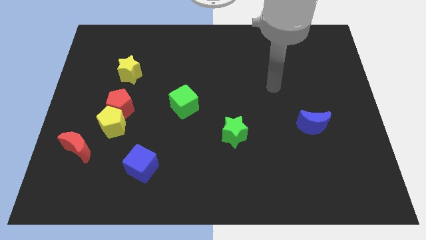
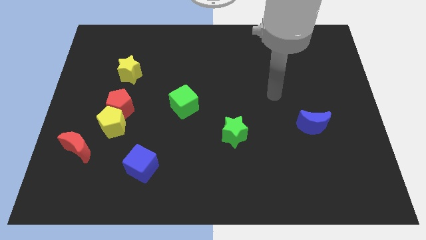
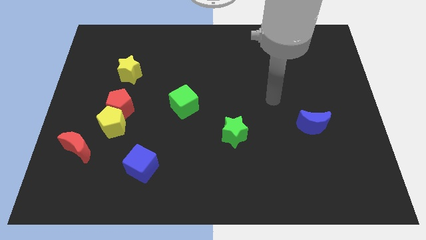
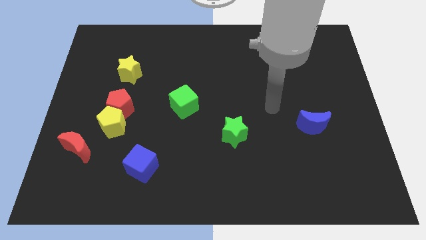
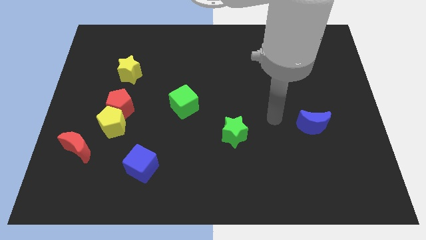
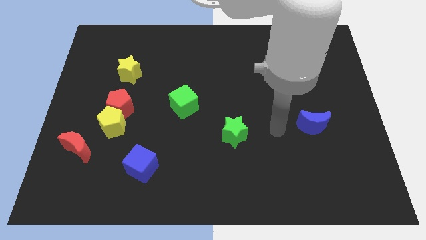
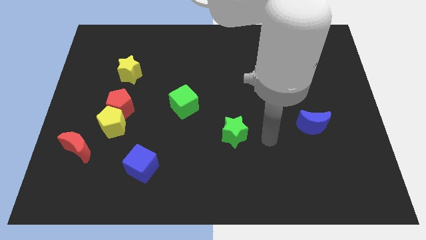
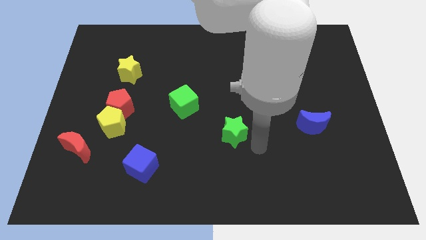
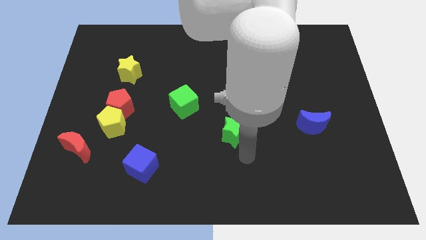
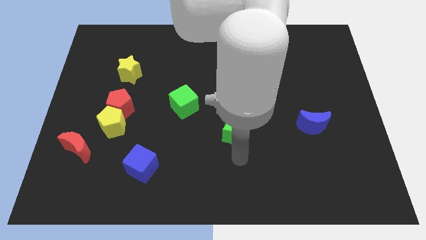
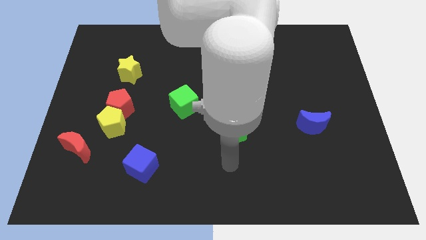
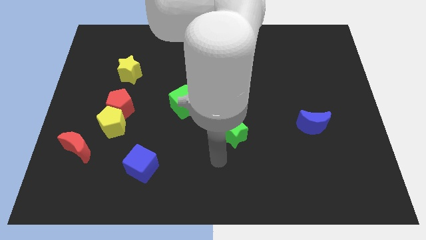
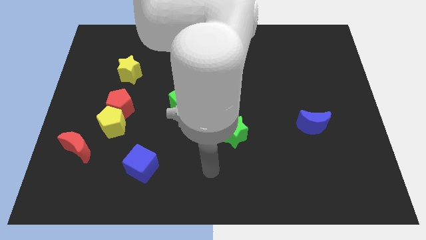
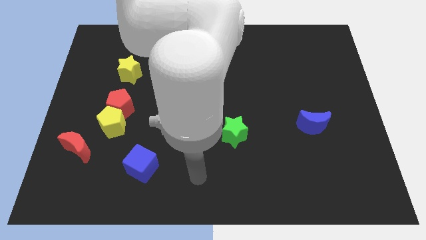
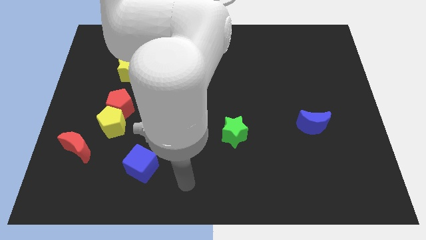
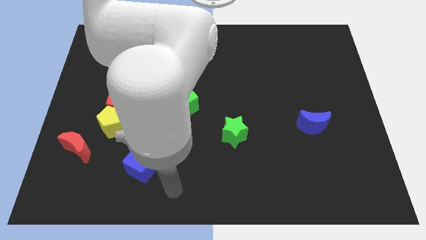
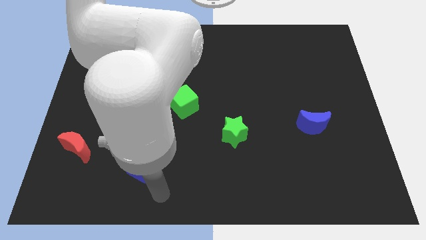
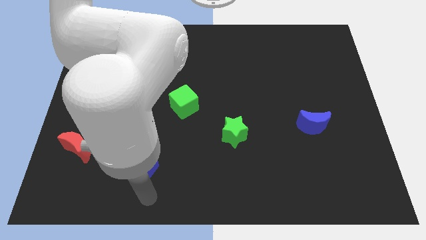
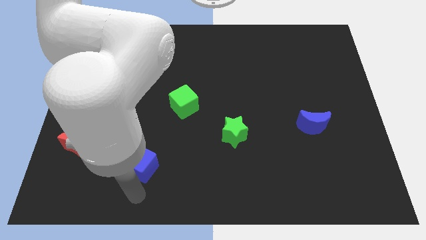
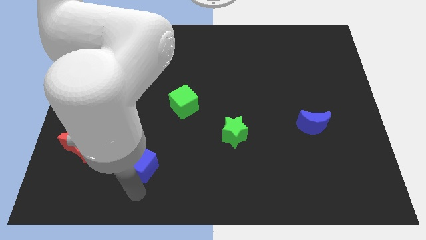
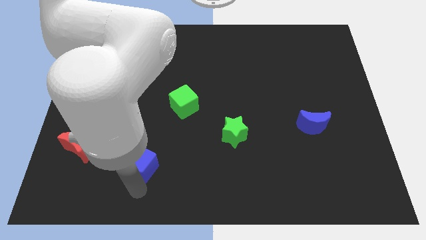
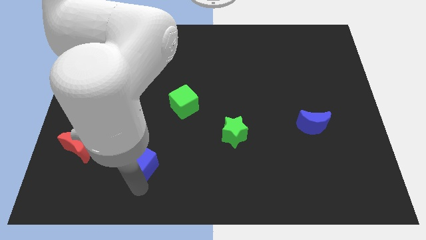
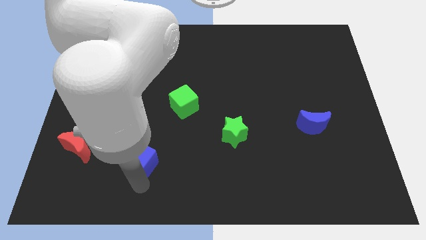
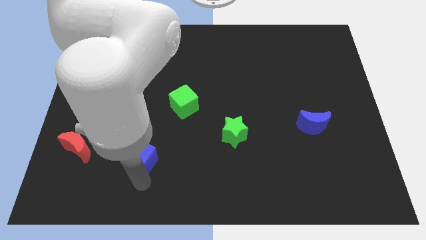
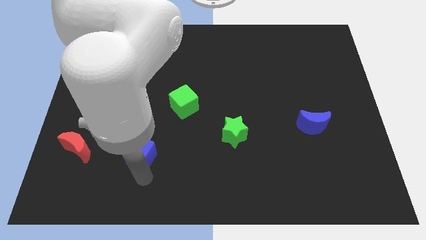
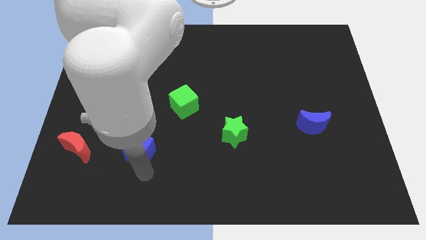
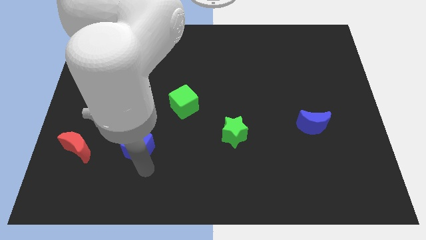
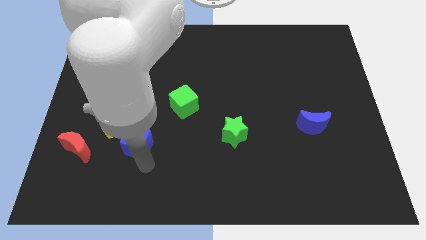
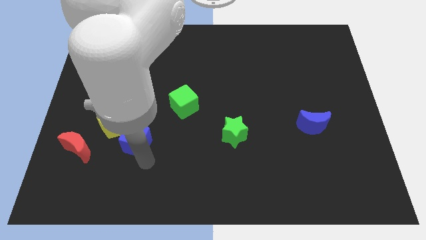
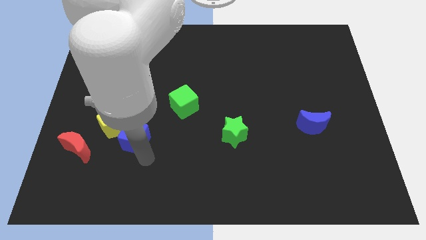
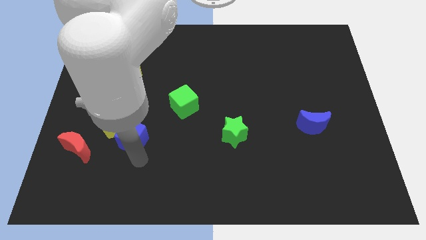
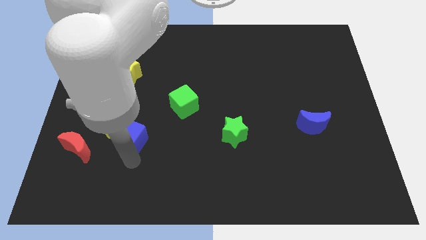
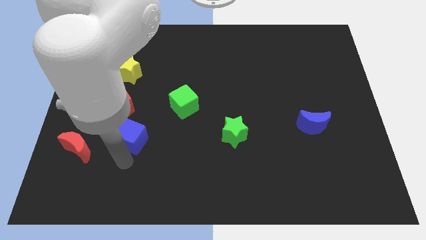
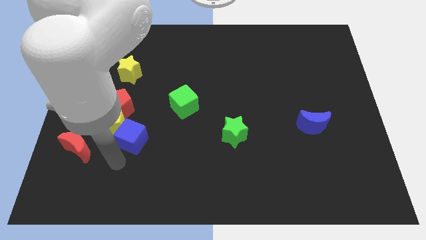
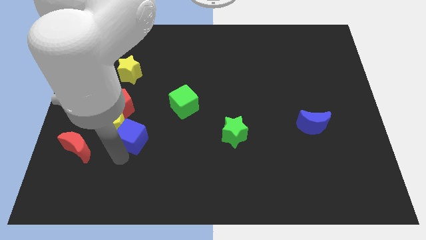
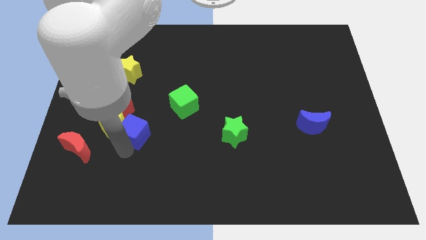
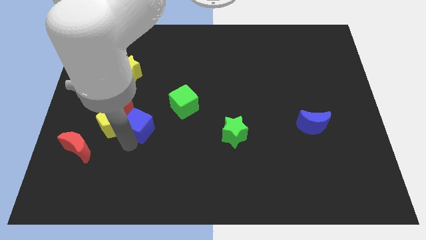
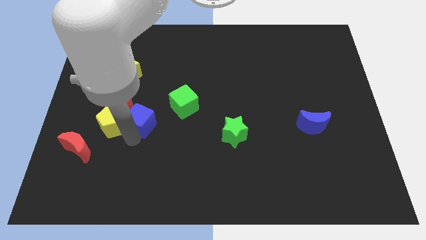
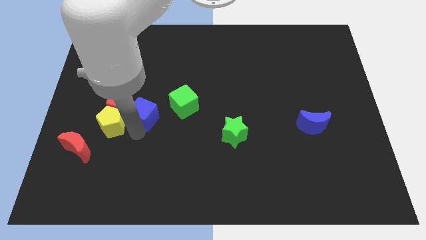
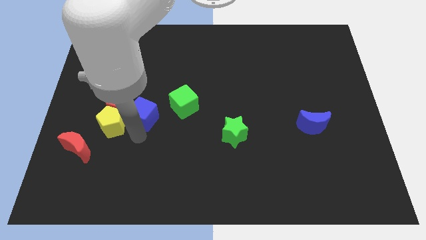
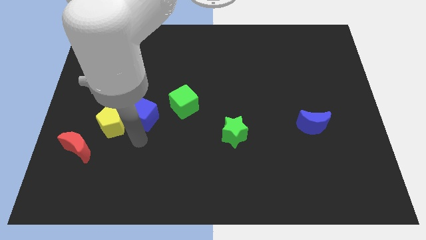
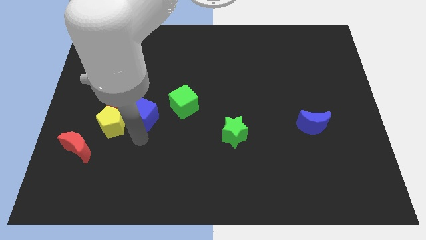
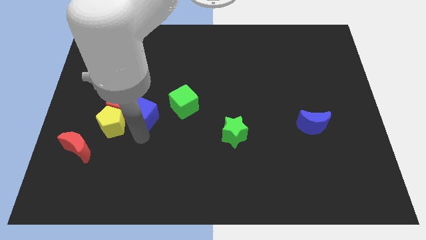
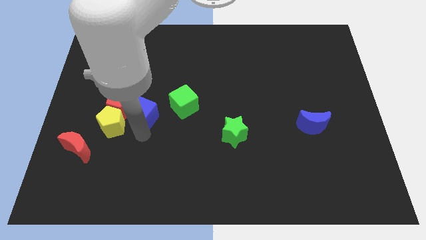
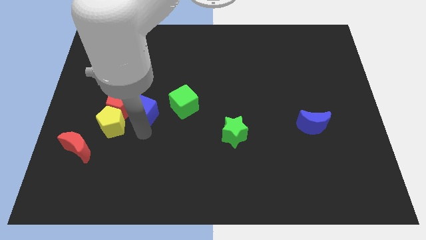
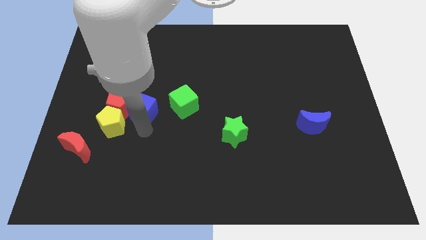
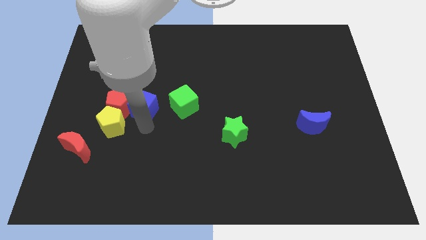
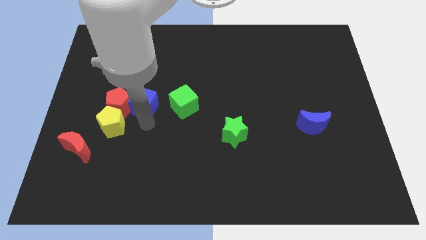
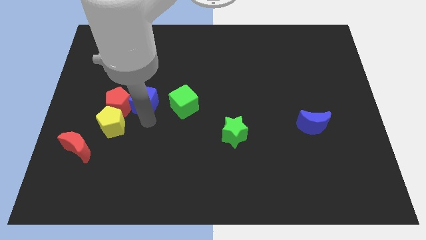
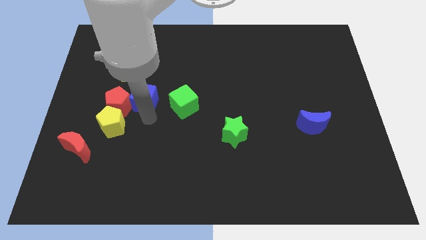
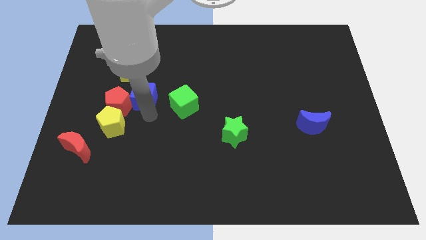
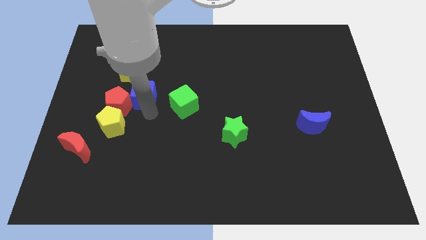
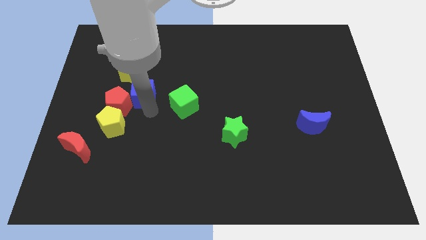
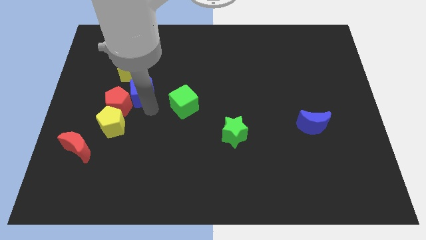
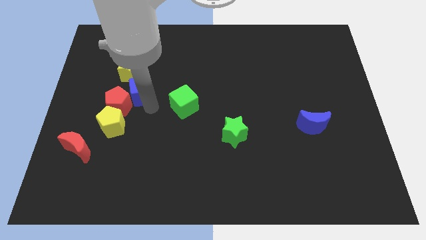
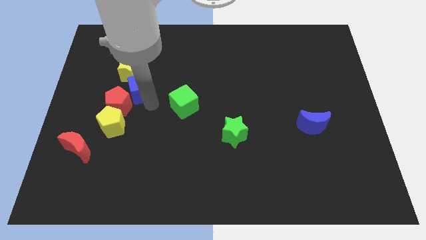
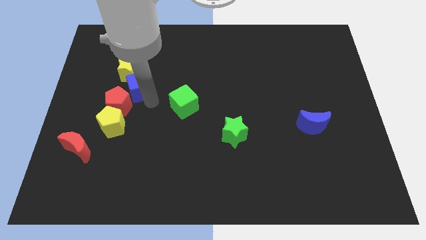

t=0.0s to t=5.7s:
put the blue cube towards the yellow star

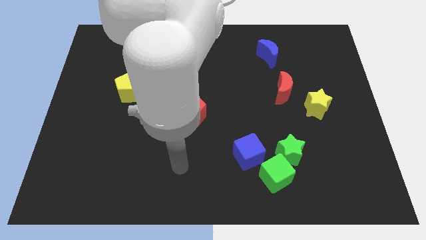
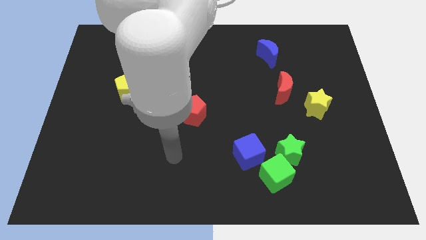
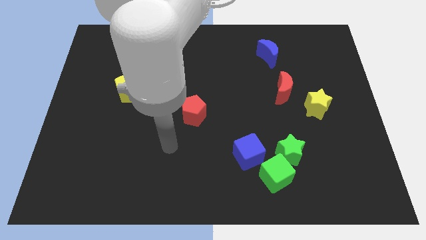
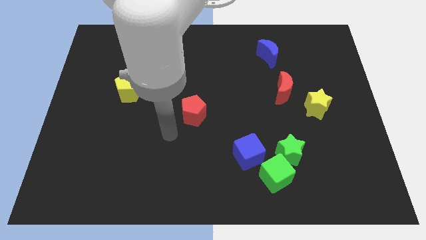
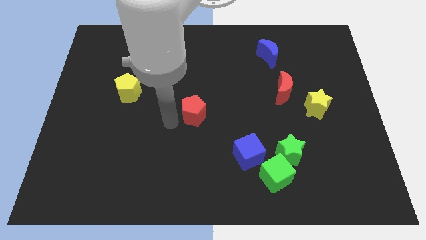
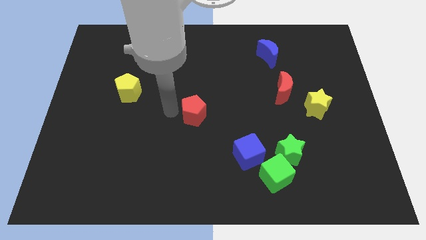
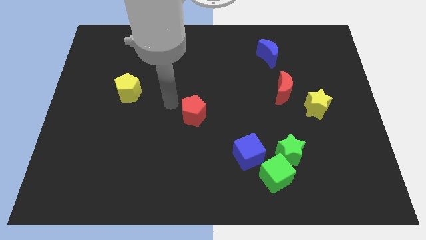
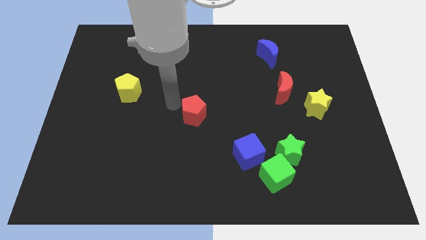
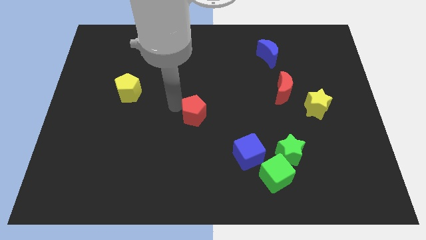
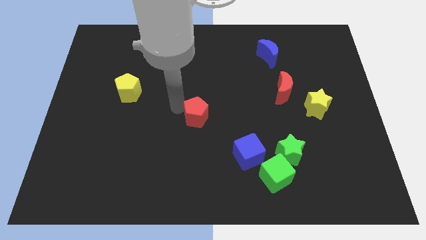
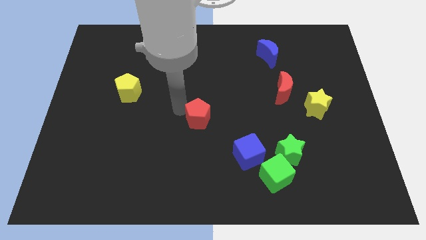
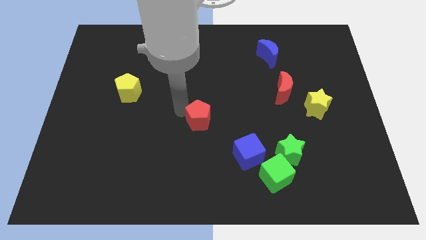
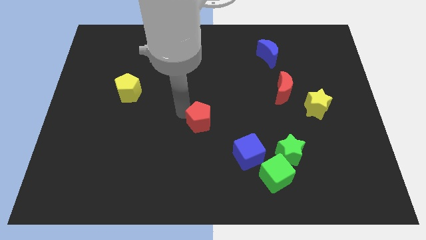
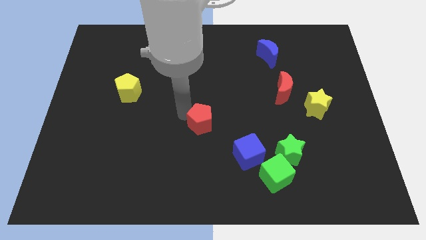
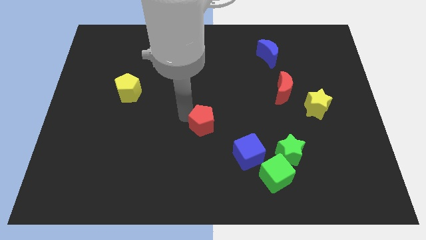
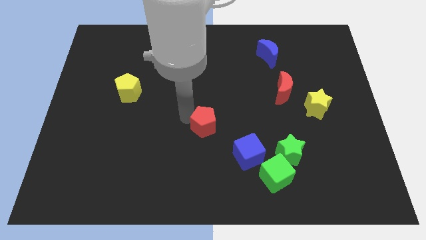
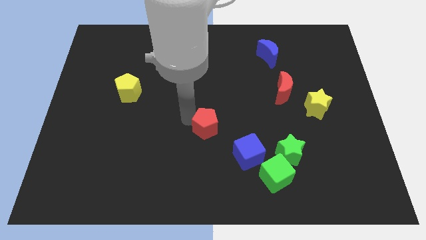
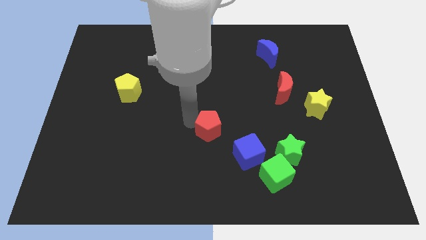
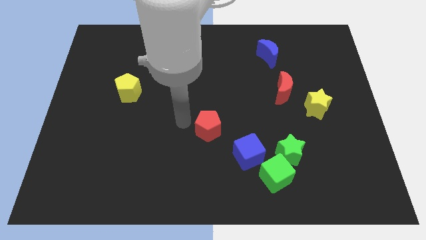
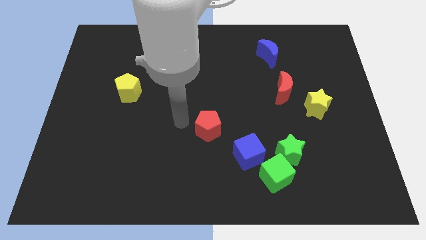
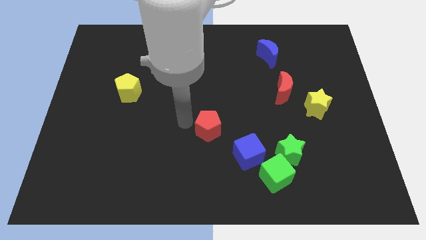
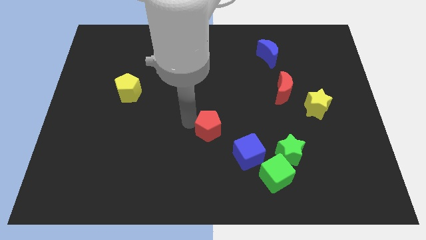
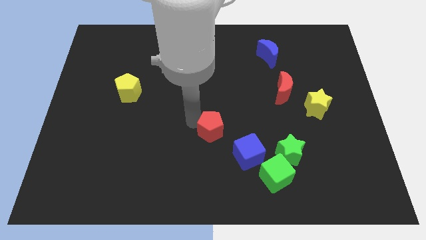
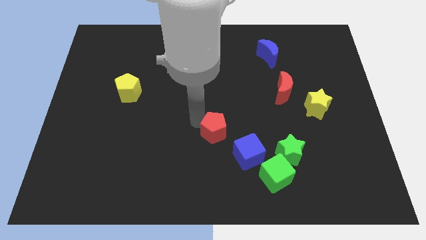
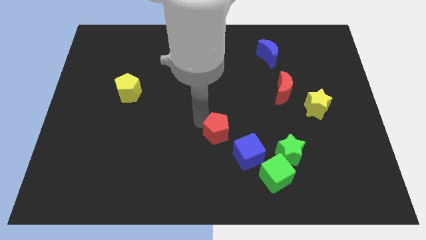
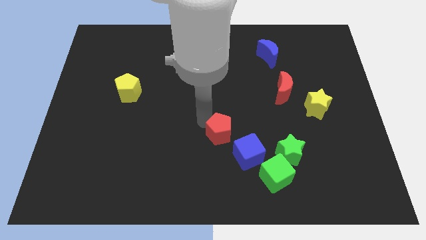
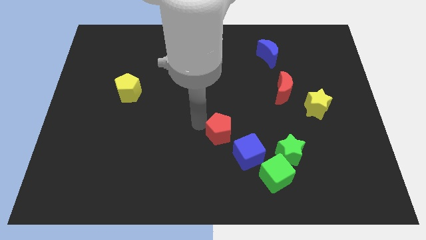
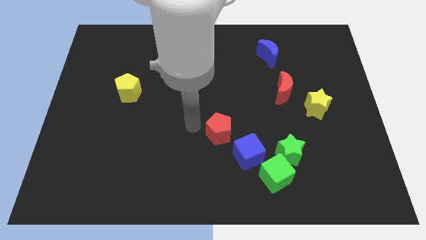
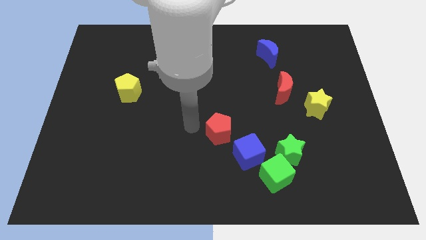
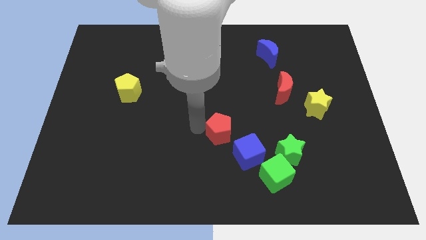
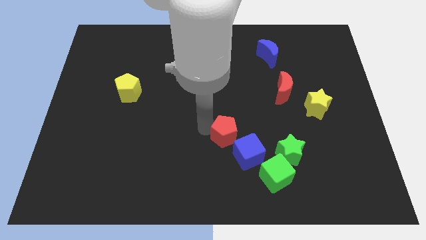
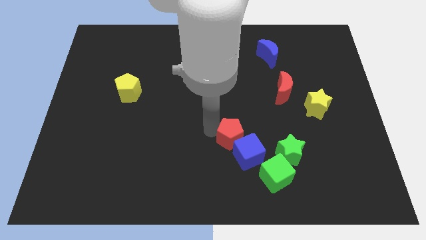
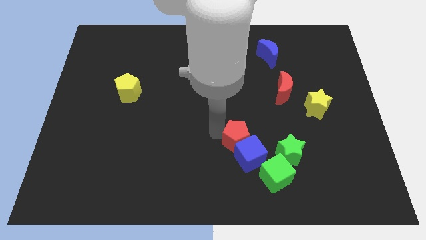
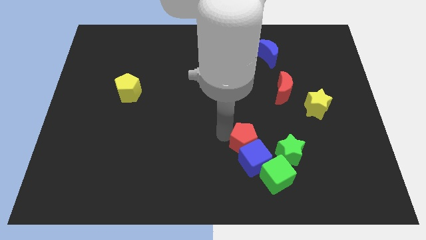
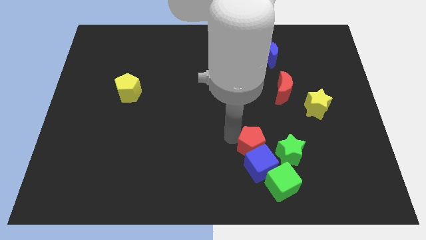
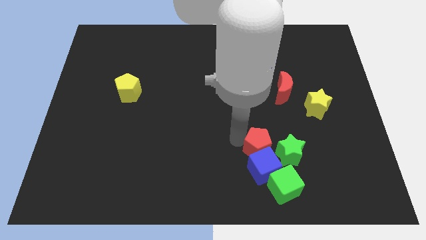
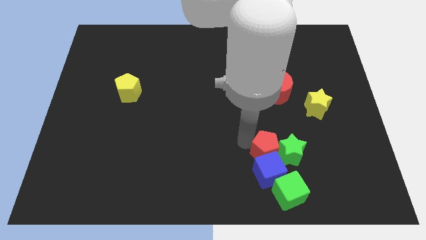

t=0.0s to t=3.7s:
put the red pentagon next to the green star
